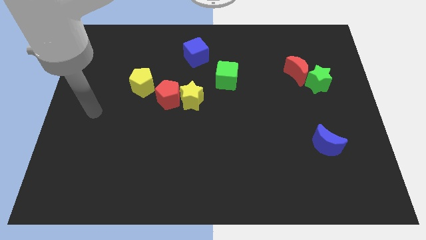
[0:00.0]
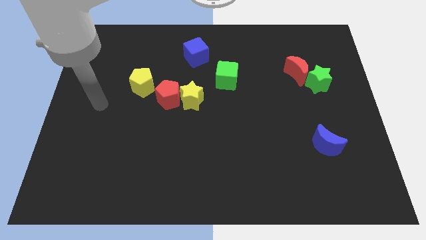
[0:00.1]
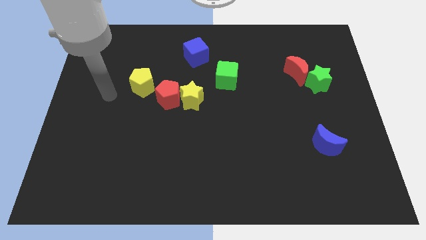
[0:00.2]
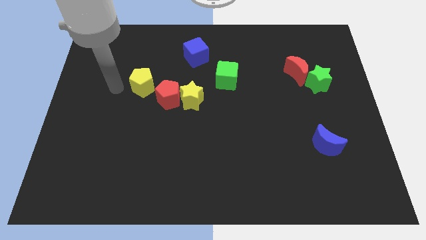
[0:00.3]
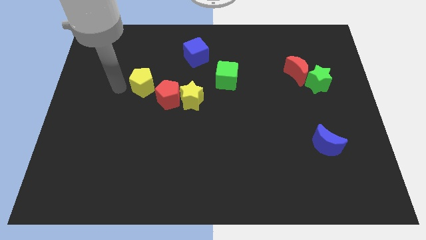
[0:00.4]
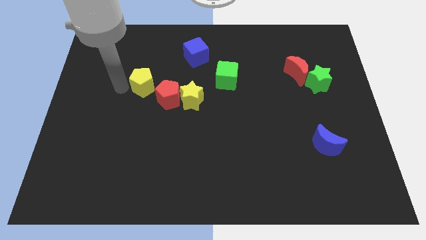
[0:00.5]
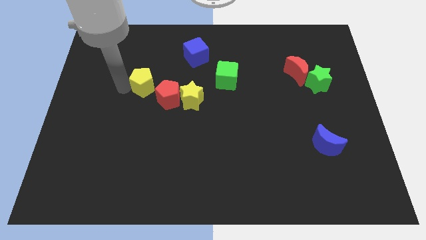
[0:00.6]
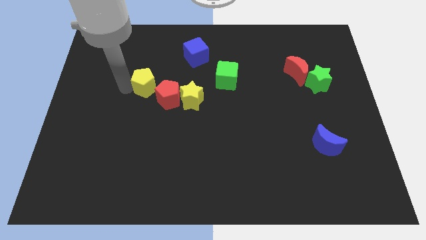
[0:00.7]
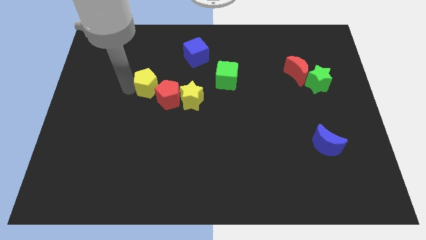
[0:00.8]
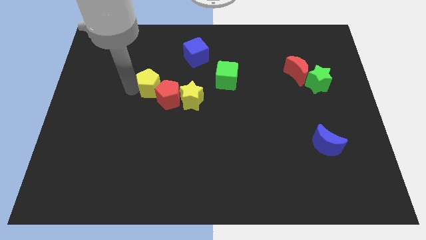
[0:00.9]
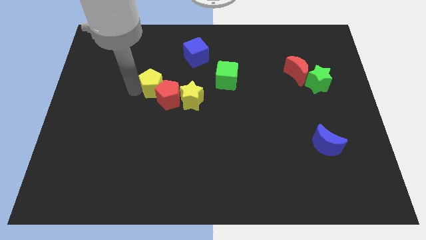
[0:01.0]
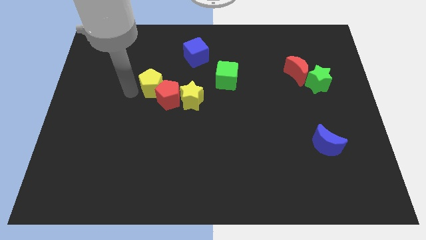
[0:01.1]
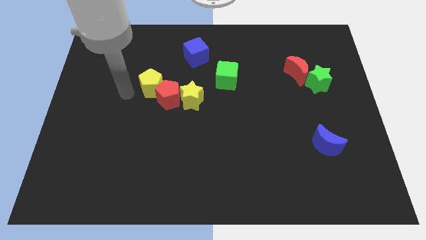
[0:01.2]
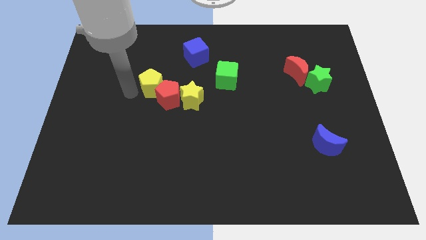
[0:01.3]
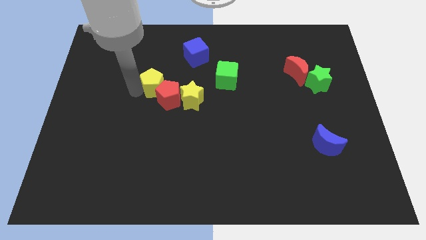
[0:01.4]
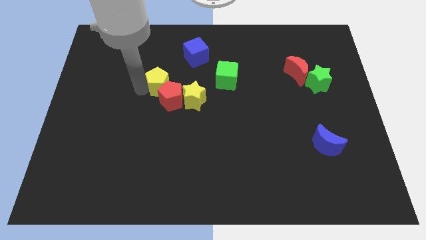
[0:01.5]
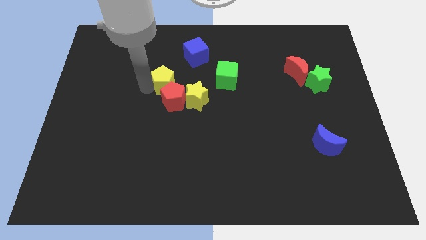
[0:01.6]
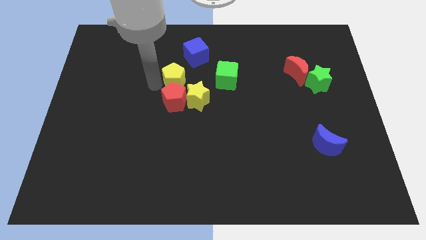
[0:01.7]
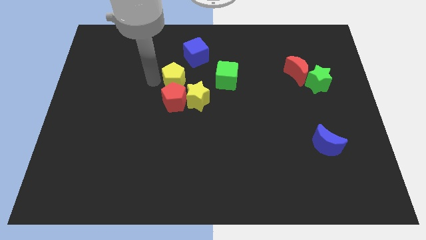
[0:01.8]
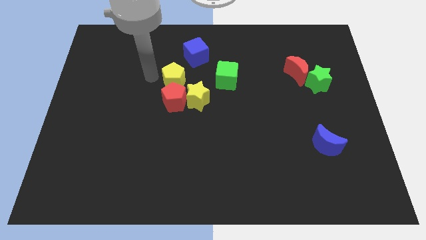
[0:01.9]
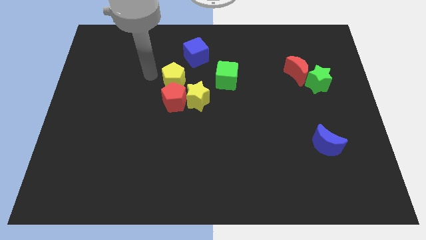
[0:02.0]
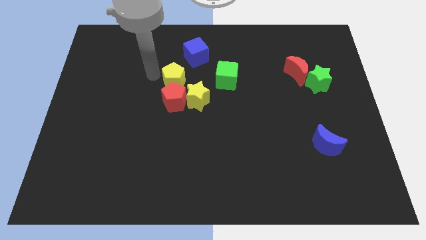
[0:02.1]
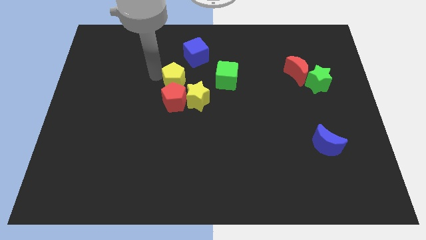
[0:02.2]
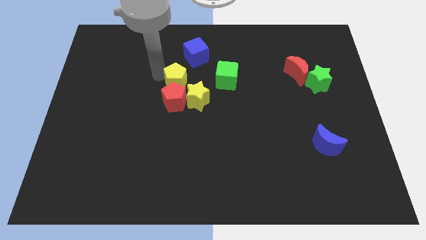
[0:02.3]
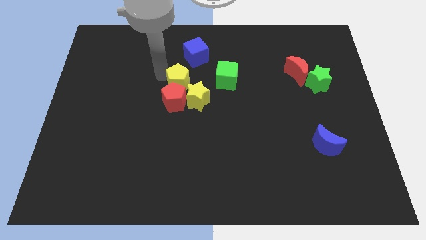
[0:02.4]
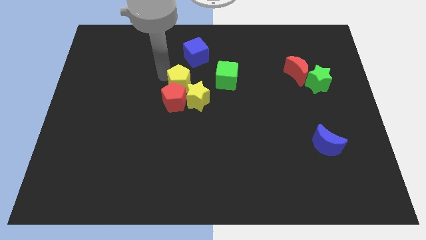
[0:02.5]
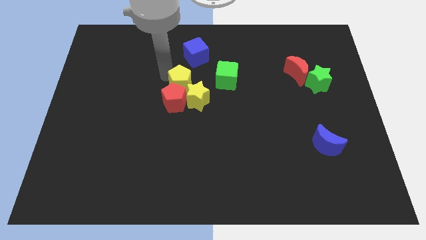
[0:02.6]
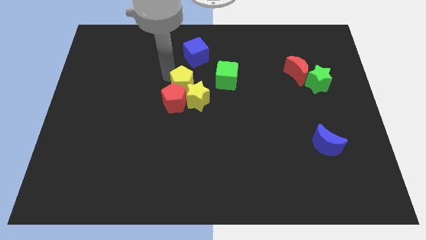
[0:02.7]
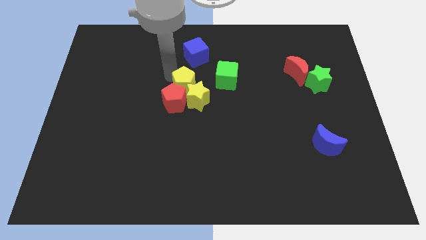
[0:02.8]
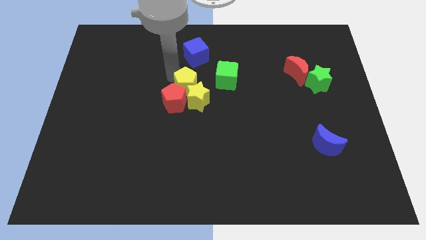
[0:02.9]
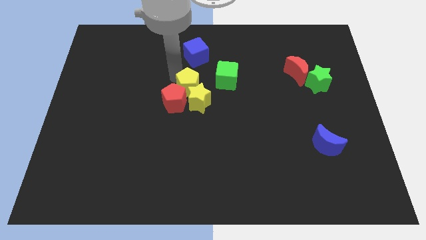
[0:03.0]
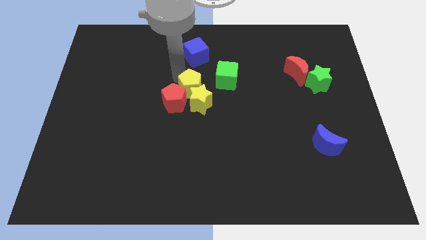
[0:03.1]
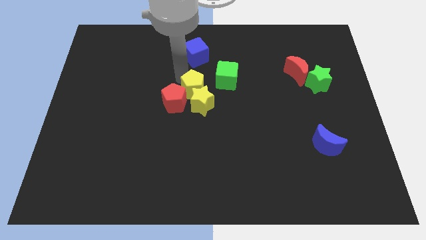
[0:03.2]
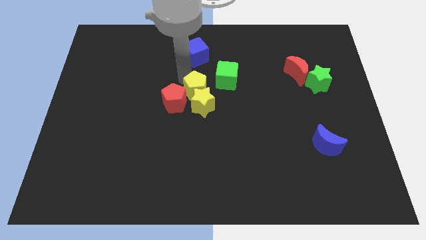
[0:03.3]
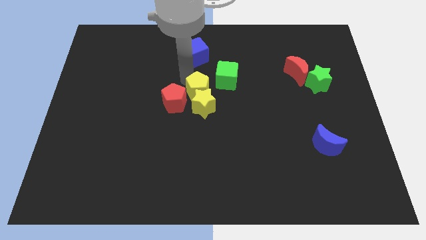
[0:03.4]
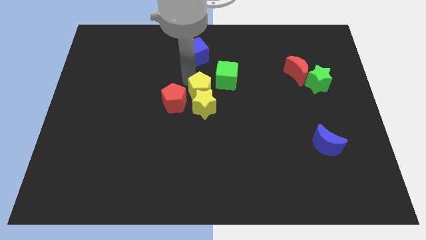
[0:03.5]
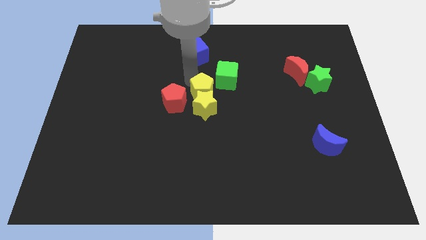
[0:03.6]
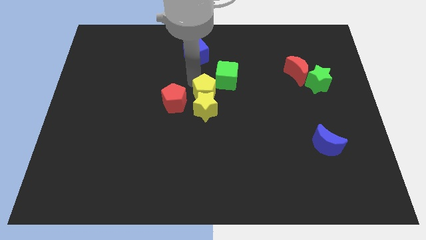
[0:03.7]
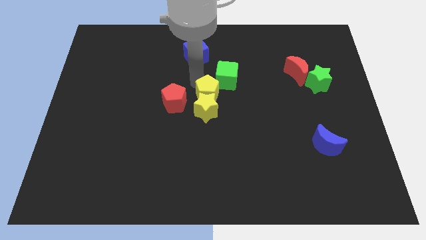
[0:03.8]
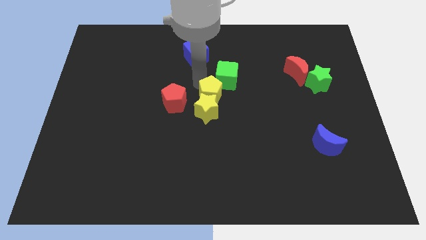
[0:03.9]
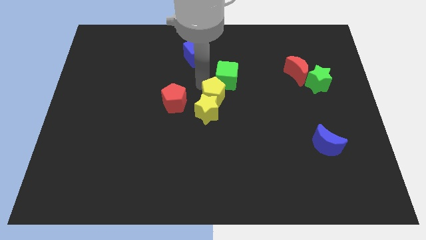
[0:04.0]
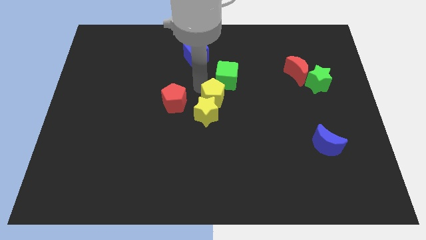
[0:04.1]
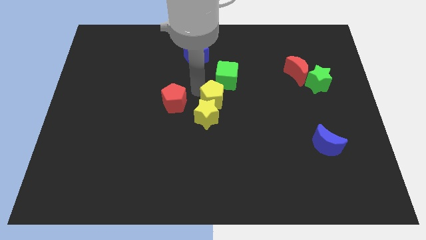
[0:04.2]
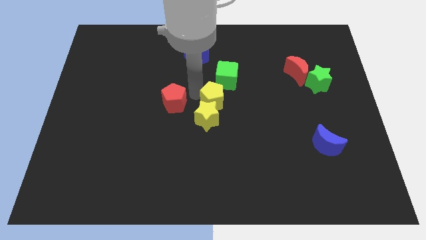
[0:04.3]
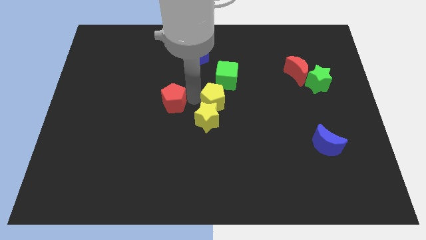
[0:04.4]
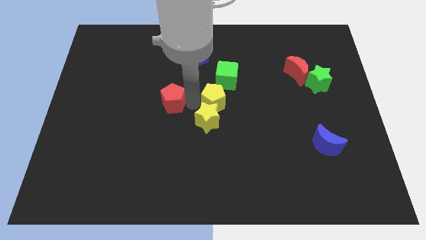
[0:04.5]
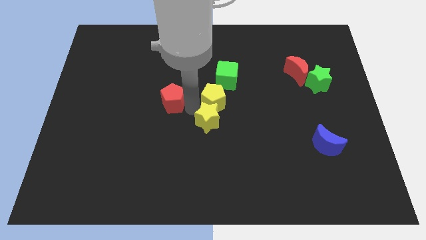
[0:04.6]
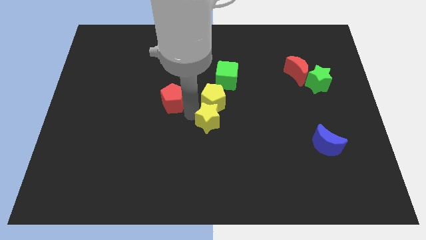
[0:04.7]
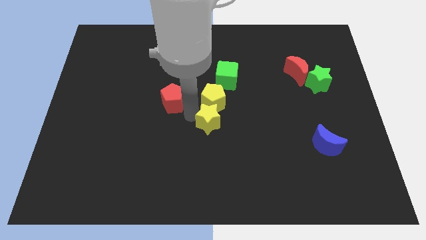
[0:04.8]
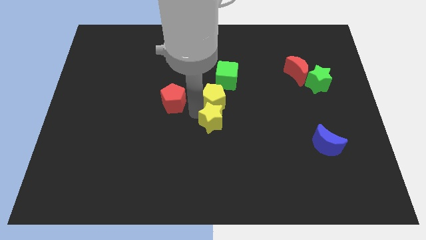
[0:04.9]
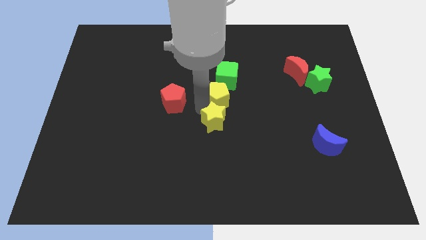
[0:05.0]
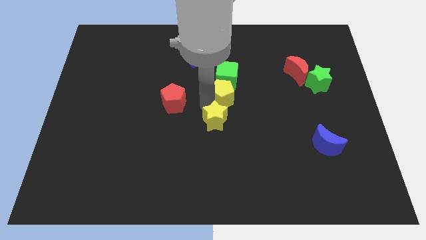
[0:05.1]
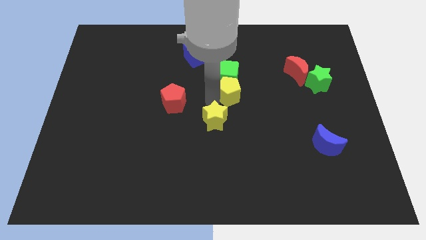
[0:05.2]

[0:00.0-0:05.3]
push the yellow pentagon diagonally down and to the right of the green cube

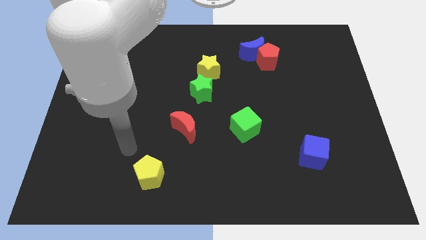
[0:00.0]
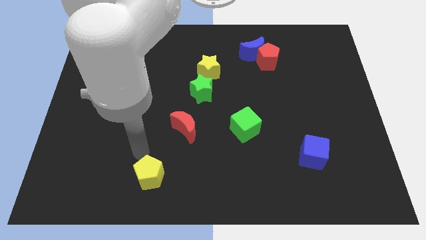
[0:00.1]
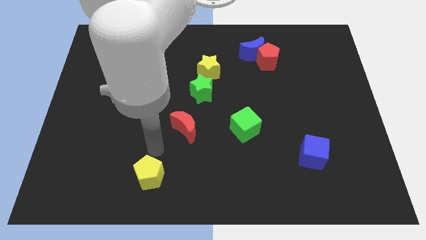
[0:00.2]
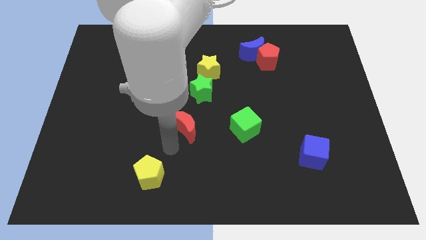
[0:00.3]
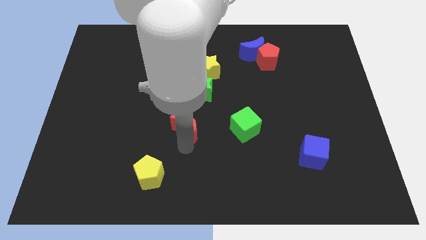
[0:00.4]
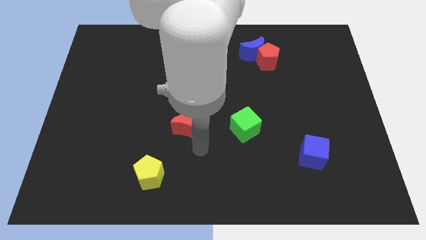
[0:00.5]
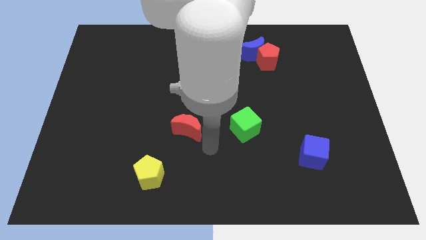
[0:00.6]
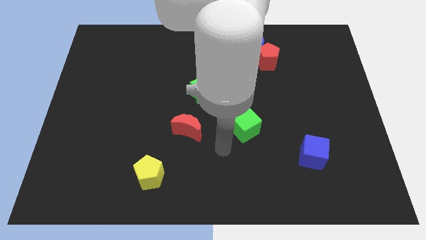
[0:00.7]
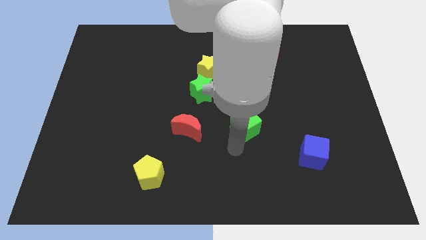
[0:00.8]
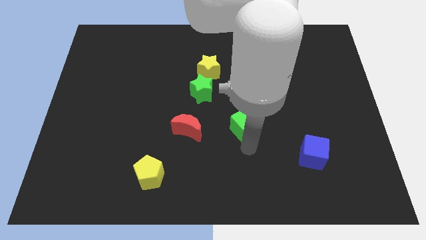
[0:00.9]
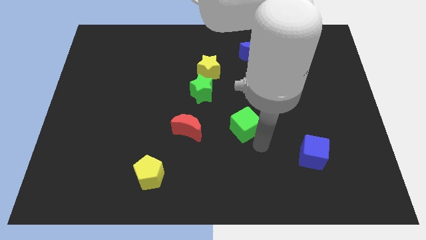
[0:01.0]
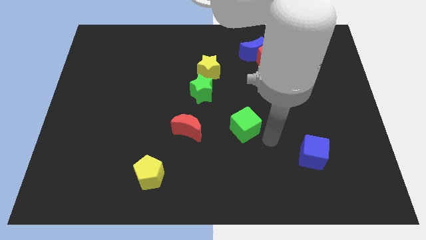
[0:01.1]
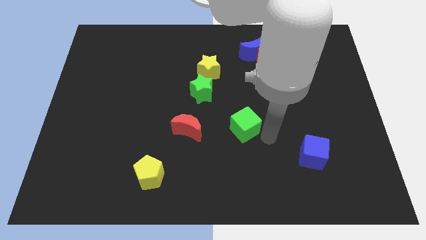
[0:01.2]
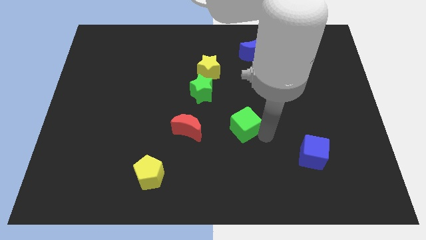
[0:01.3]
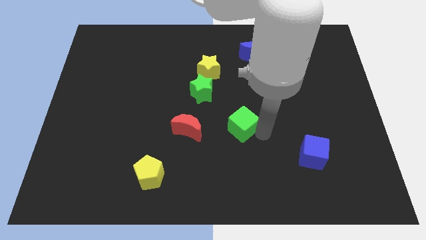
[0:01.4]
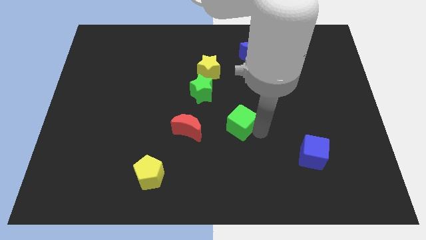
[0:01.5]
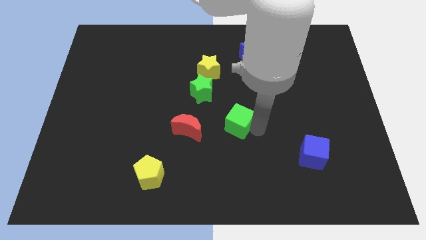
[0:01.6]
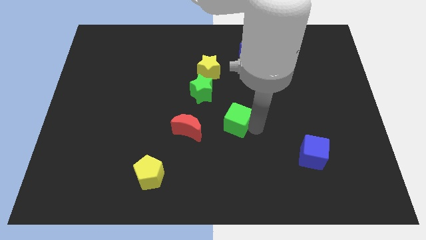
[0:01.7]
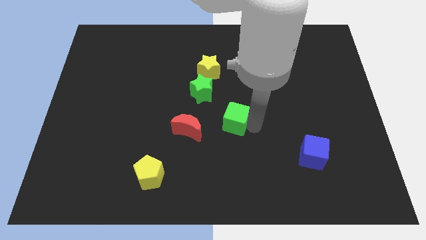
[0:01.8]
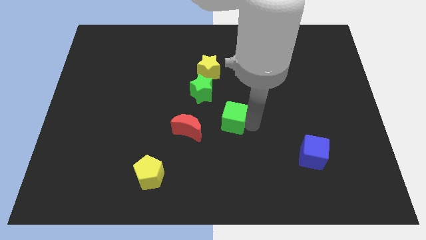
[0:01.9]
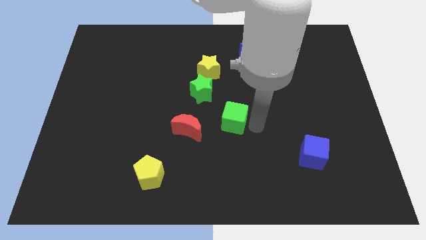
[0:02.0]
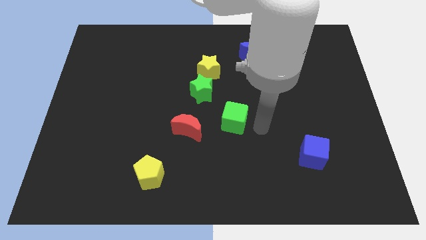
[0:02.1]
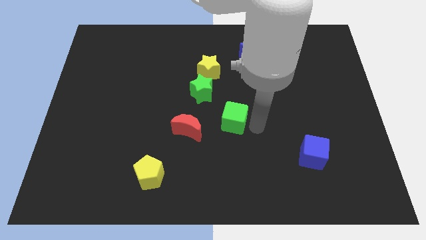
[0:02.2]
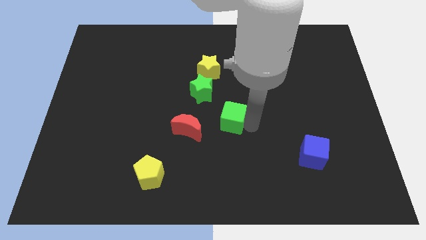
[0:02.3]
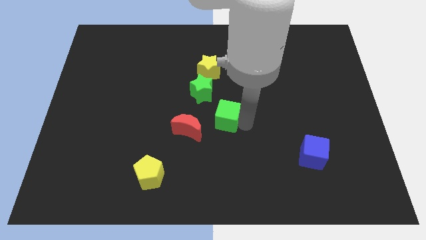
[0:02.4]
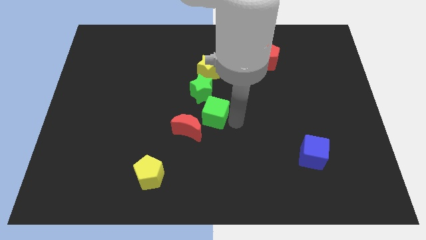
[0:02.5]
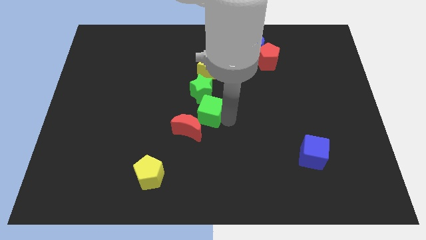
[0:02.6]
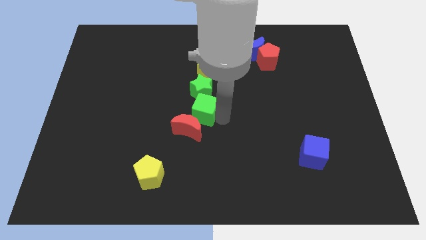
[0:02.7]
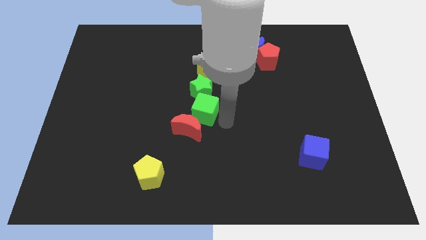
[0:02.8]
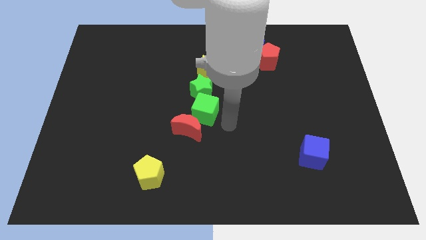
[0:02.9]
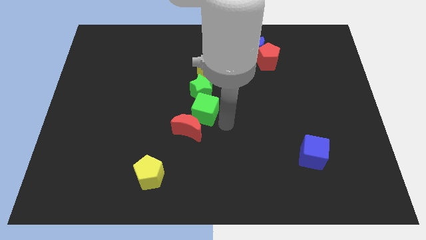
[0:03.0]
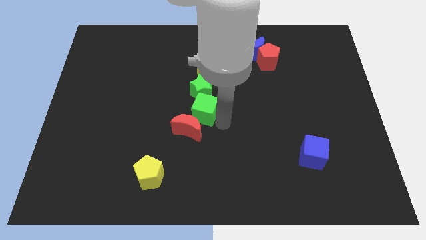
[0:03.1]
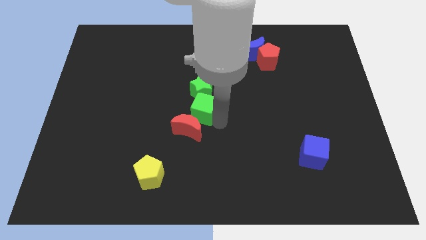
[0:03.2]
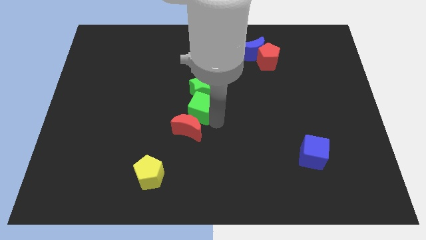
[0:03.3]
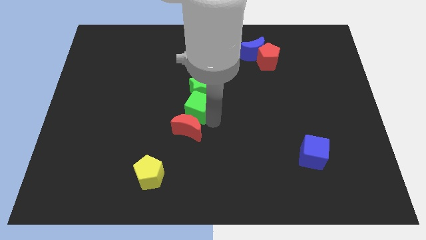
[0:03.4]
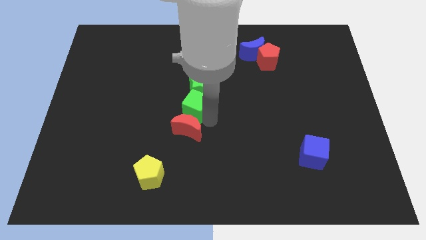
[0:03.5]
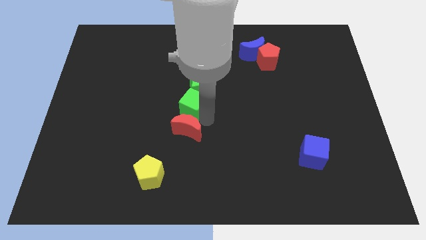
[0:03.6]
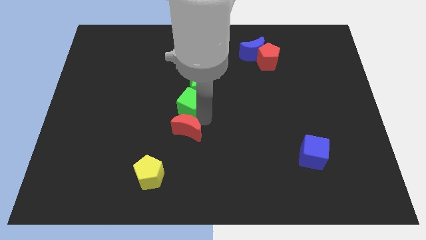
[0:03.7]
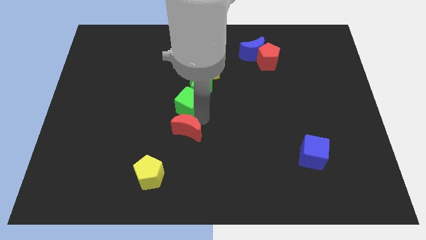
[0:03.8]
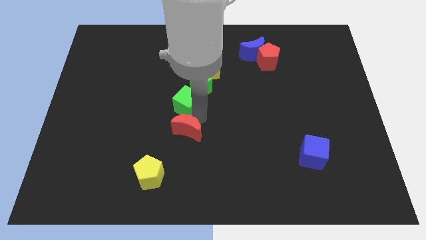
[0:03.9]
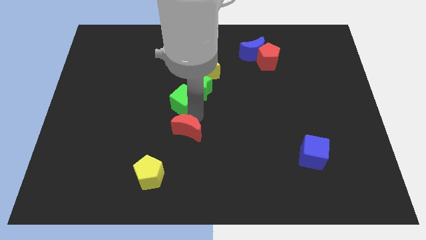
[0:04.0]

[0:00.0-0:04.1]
slide the green cube to the left of the green star
